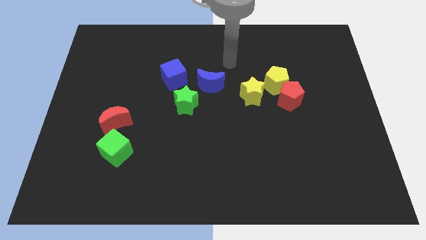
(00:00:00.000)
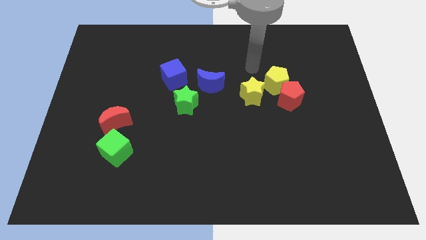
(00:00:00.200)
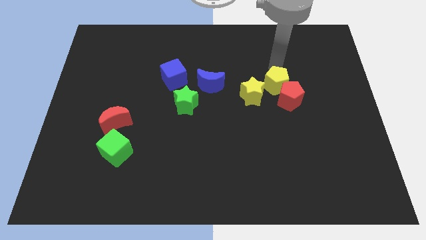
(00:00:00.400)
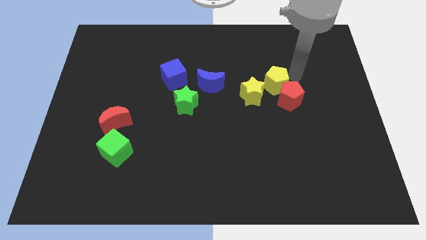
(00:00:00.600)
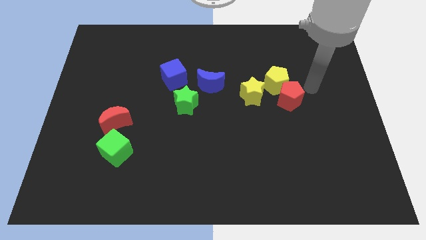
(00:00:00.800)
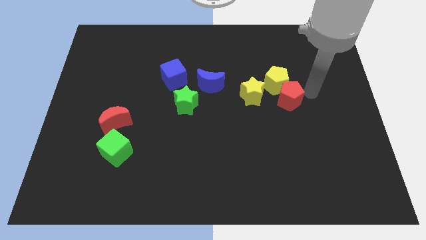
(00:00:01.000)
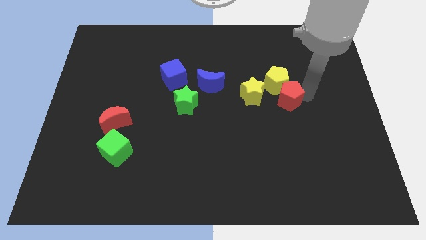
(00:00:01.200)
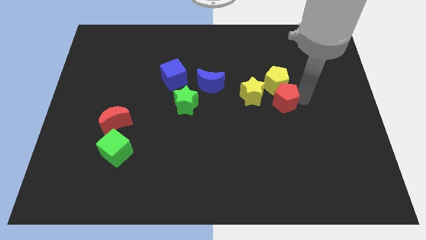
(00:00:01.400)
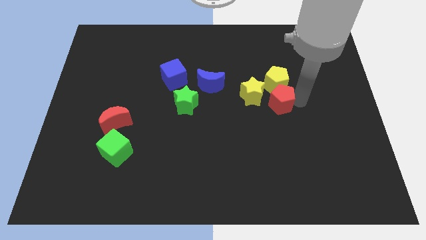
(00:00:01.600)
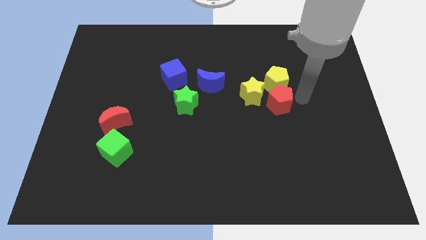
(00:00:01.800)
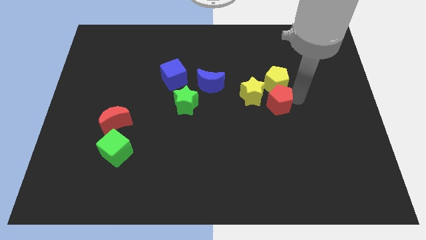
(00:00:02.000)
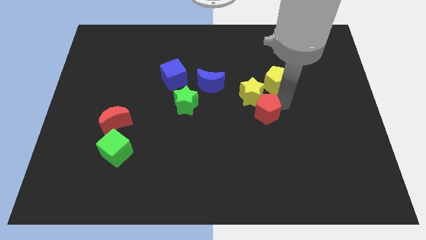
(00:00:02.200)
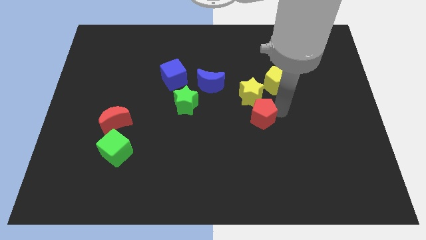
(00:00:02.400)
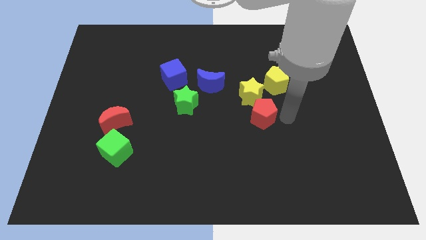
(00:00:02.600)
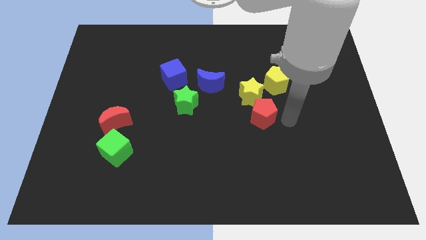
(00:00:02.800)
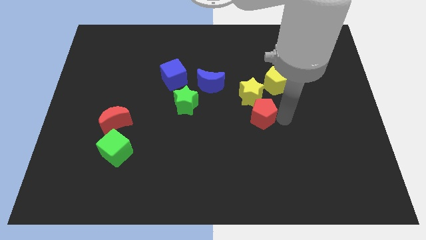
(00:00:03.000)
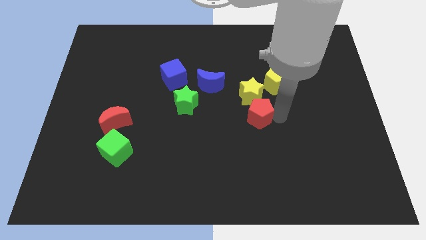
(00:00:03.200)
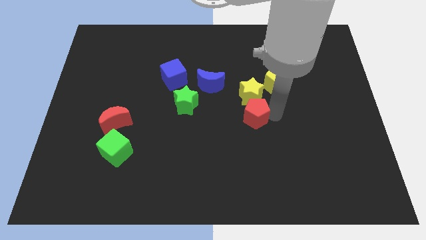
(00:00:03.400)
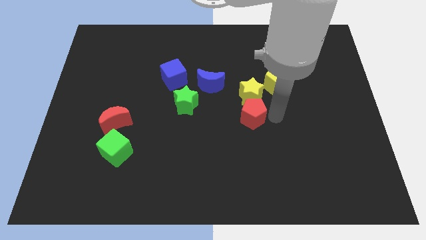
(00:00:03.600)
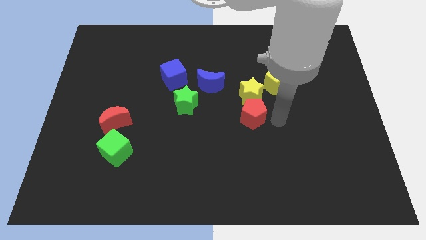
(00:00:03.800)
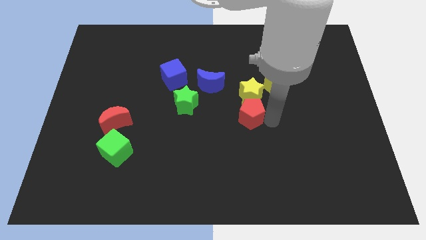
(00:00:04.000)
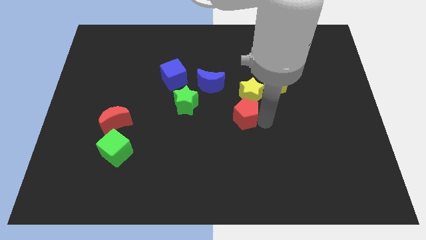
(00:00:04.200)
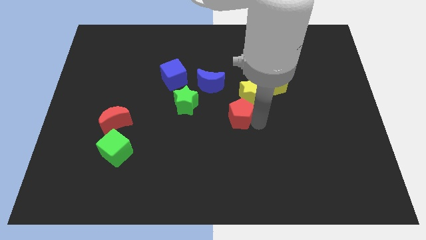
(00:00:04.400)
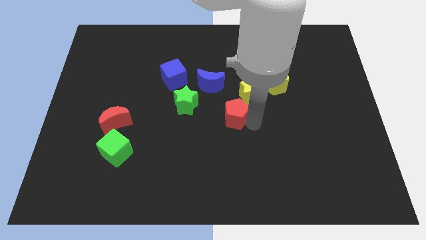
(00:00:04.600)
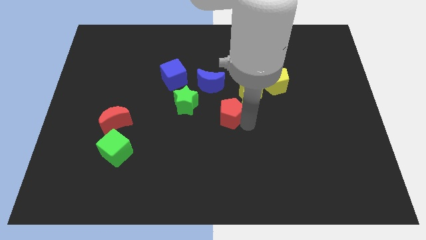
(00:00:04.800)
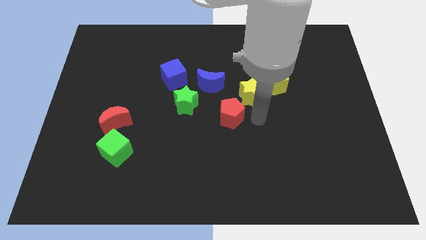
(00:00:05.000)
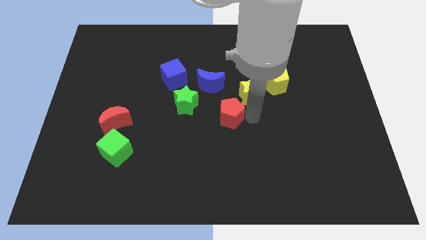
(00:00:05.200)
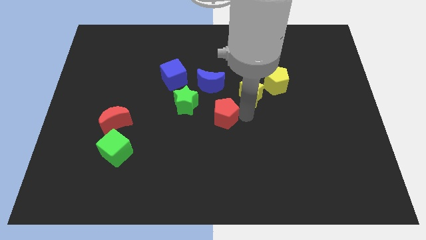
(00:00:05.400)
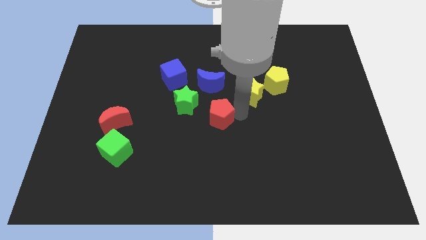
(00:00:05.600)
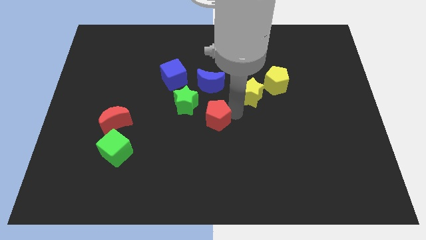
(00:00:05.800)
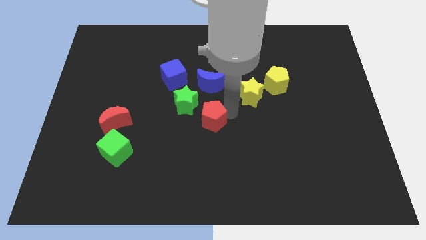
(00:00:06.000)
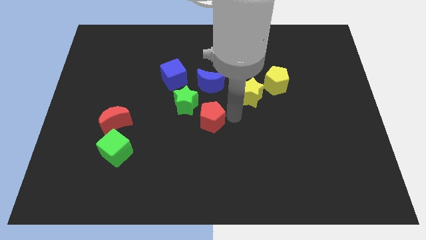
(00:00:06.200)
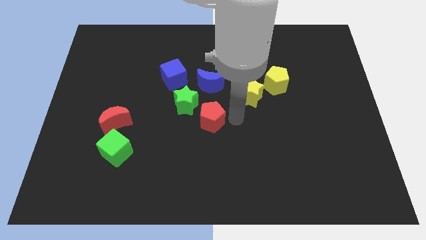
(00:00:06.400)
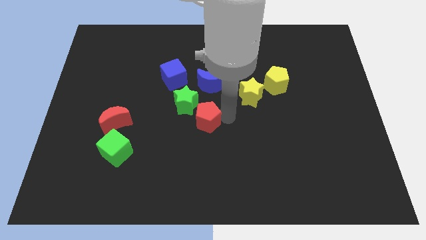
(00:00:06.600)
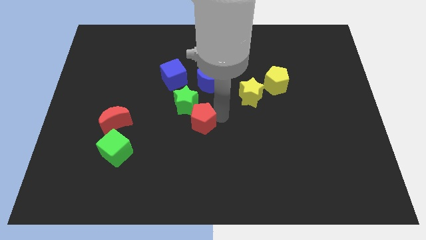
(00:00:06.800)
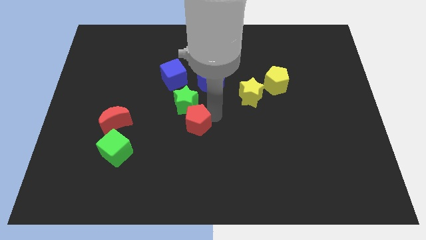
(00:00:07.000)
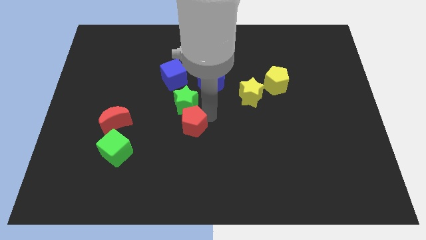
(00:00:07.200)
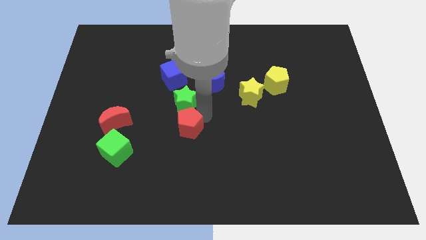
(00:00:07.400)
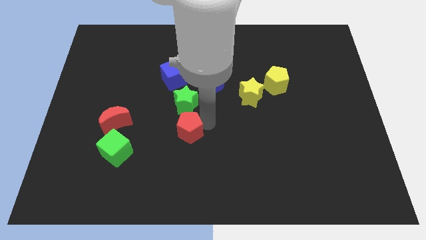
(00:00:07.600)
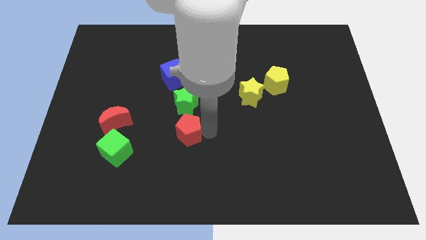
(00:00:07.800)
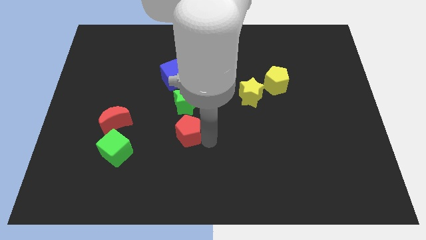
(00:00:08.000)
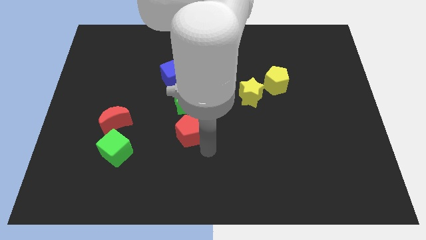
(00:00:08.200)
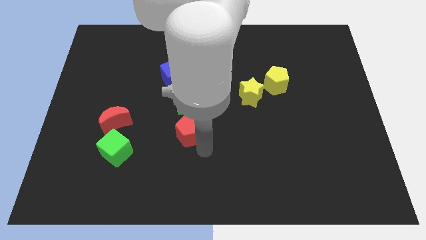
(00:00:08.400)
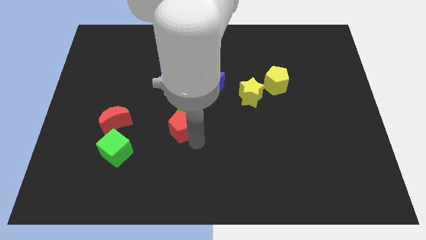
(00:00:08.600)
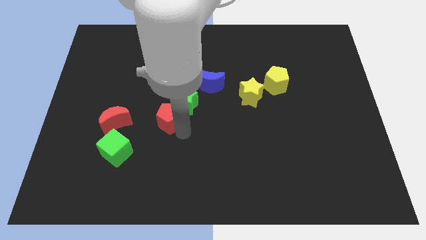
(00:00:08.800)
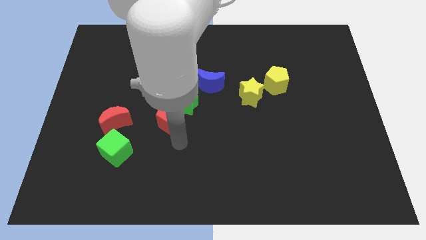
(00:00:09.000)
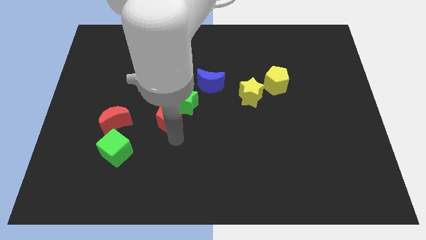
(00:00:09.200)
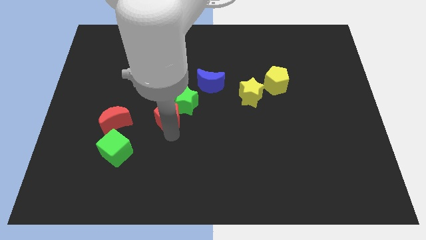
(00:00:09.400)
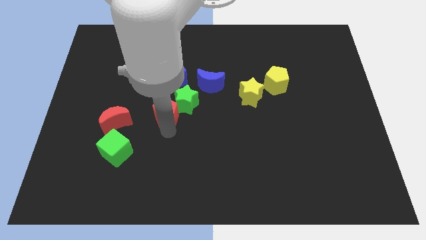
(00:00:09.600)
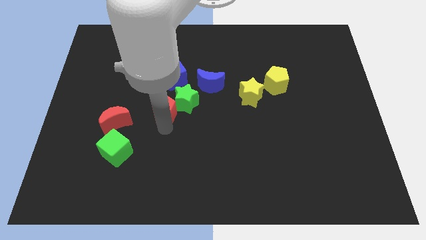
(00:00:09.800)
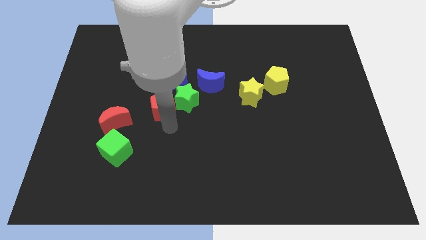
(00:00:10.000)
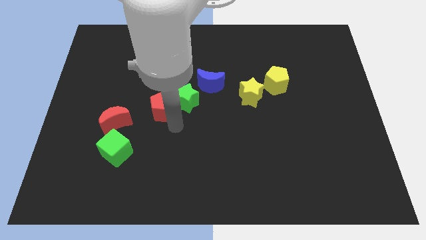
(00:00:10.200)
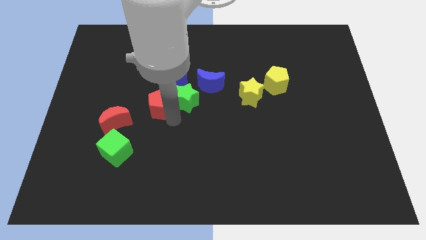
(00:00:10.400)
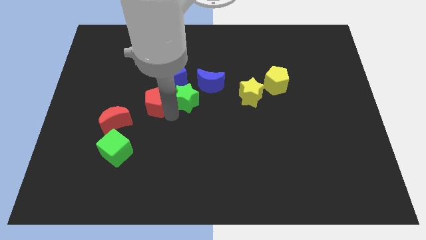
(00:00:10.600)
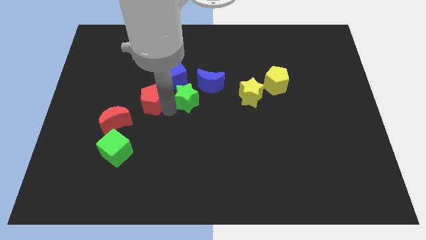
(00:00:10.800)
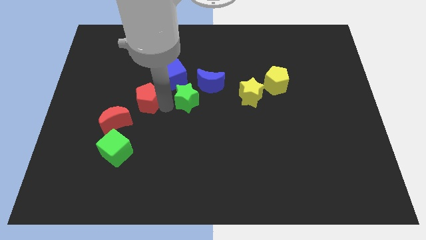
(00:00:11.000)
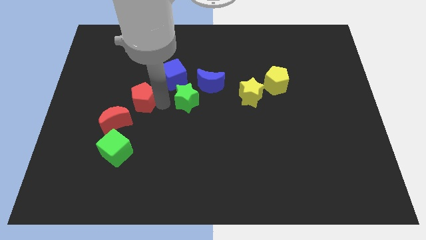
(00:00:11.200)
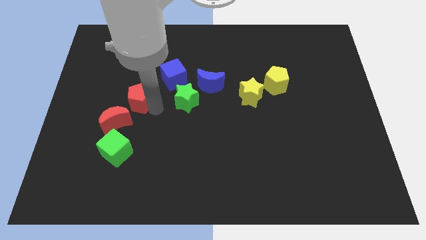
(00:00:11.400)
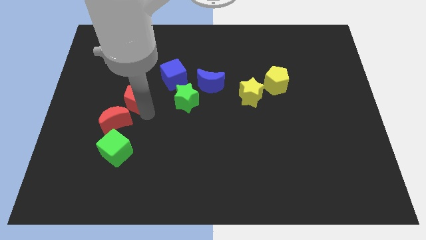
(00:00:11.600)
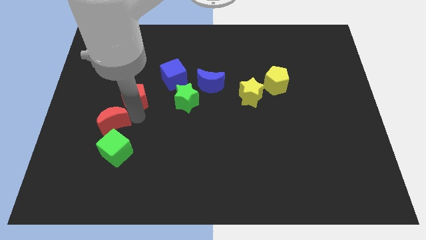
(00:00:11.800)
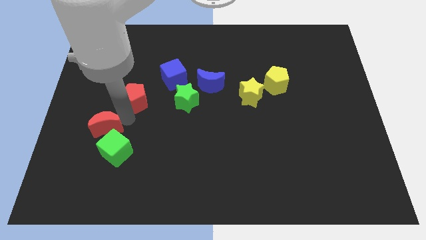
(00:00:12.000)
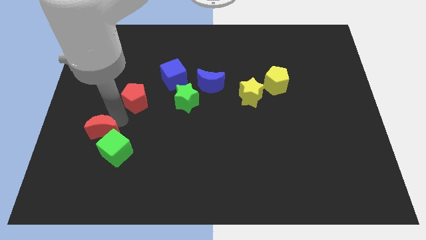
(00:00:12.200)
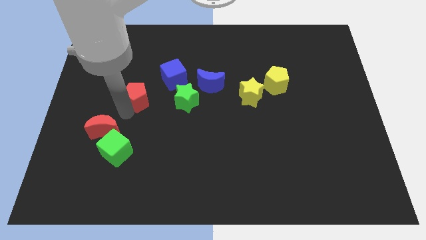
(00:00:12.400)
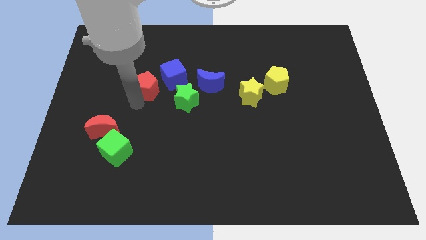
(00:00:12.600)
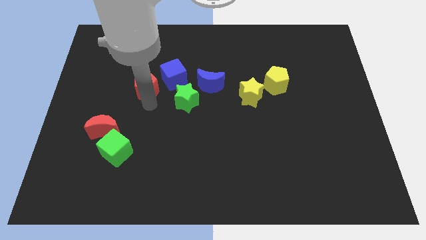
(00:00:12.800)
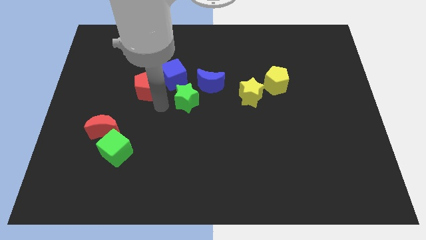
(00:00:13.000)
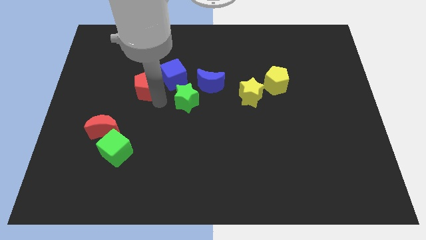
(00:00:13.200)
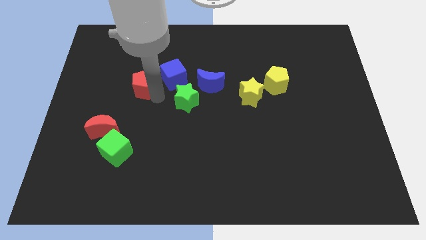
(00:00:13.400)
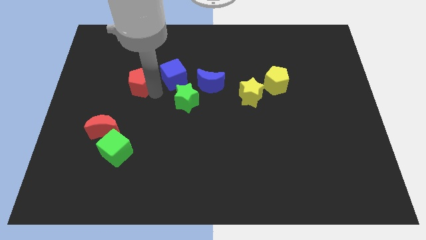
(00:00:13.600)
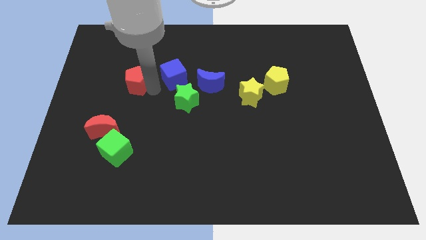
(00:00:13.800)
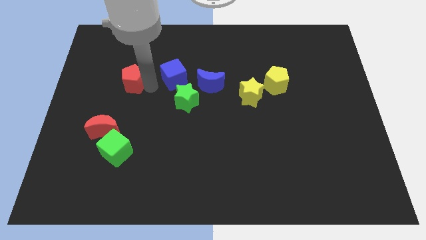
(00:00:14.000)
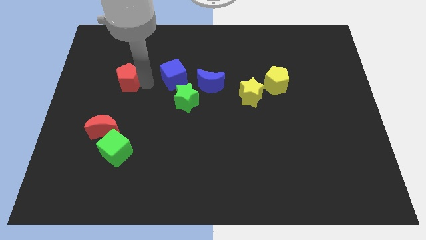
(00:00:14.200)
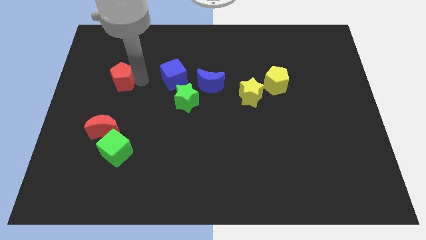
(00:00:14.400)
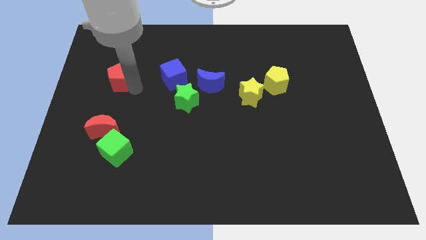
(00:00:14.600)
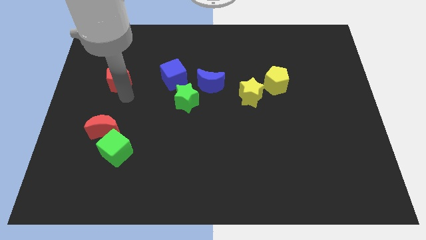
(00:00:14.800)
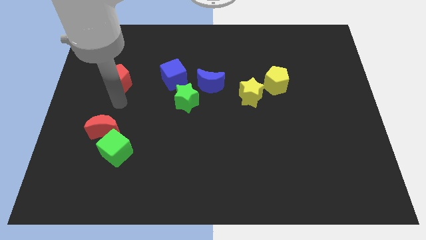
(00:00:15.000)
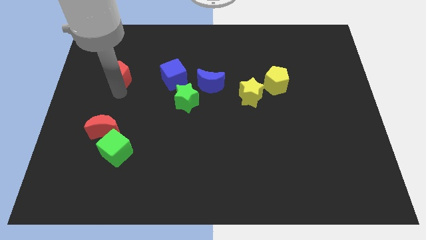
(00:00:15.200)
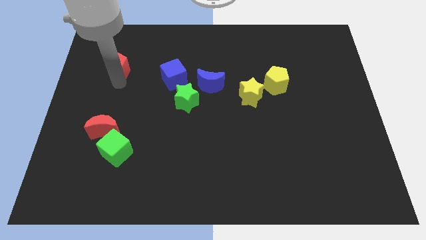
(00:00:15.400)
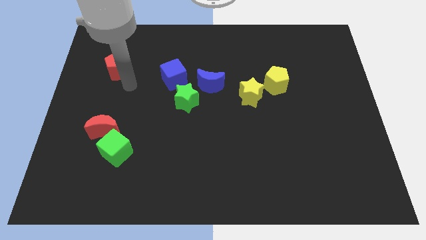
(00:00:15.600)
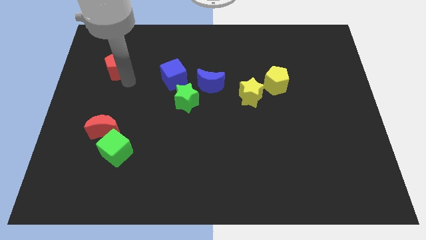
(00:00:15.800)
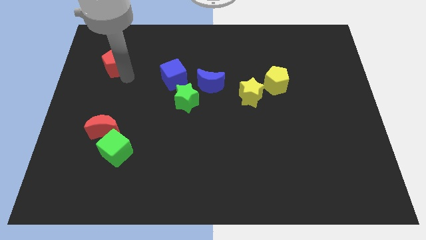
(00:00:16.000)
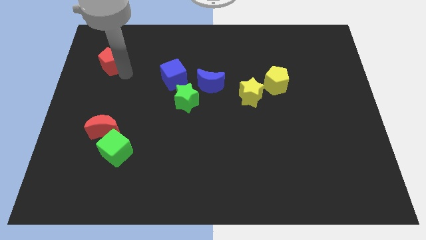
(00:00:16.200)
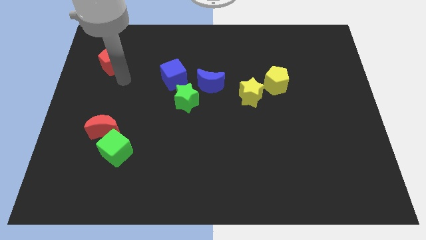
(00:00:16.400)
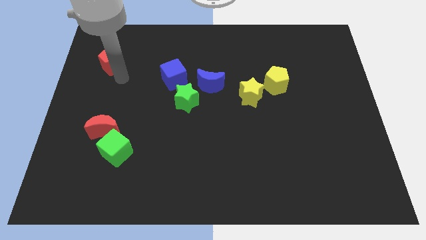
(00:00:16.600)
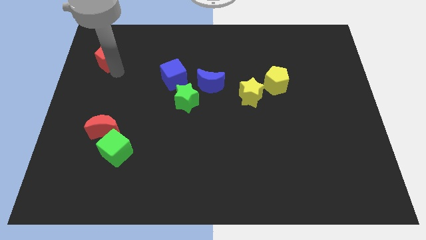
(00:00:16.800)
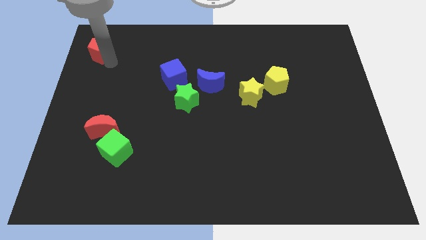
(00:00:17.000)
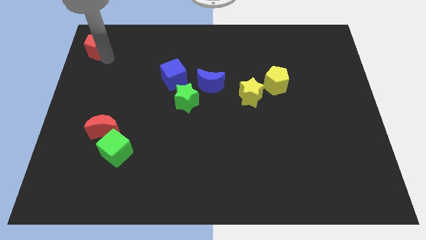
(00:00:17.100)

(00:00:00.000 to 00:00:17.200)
move the red pentagon to the upper left corner
